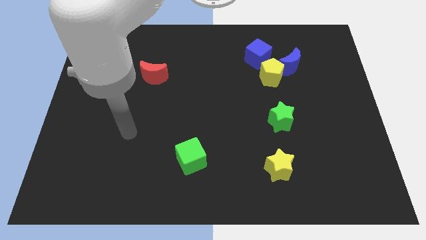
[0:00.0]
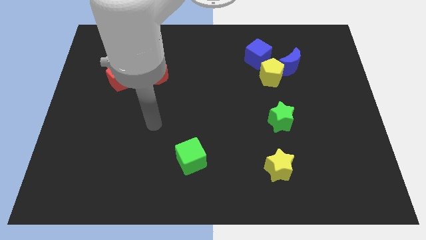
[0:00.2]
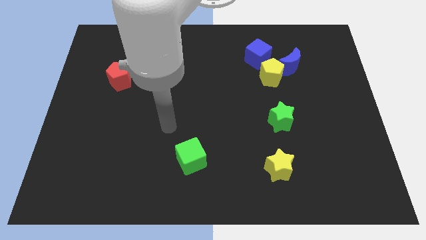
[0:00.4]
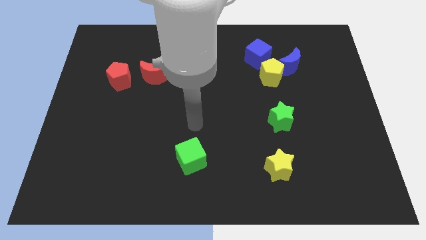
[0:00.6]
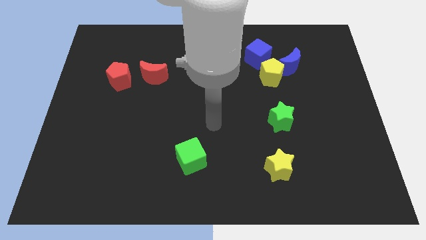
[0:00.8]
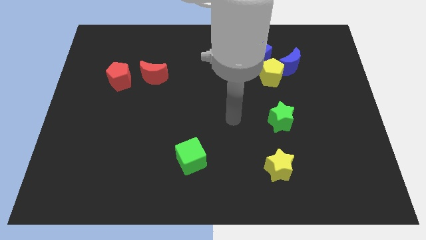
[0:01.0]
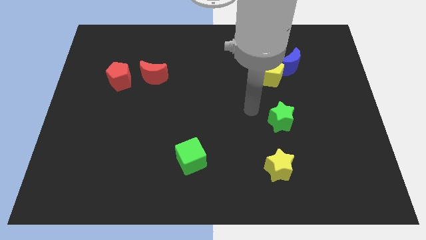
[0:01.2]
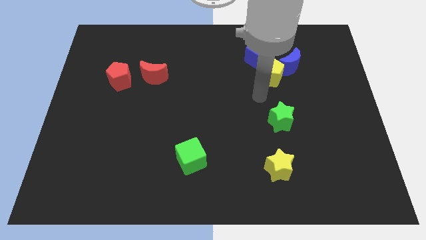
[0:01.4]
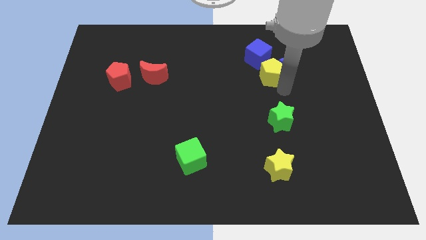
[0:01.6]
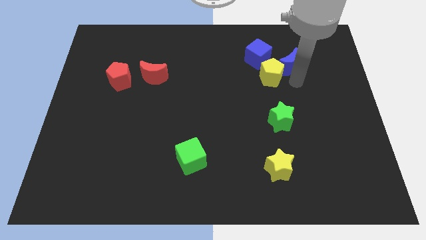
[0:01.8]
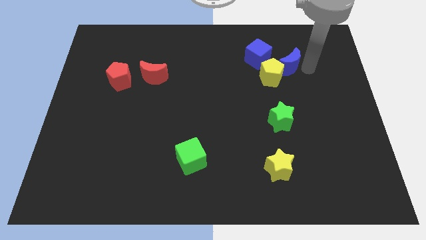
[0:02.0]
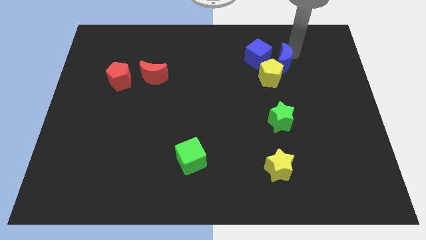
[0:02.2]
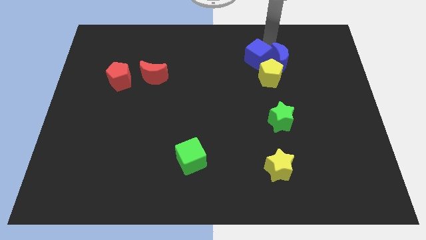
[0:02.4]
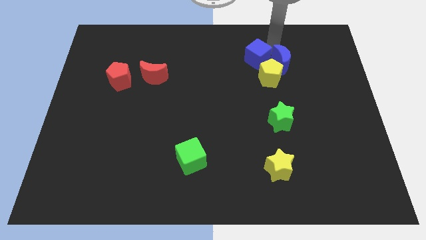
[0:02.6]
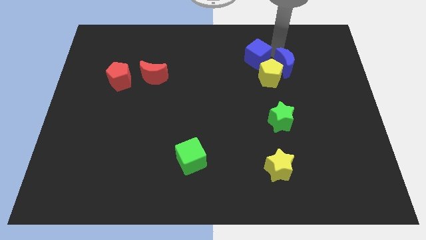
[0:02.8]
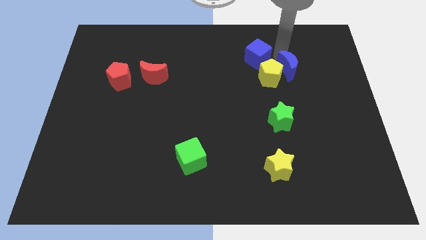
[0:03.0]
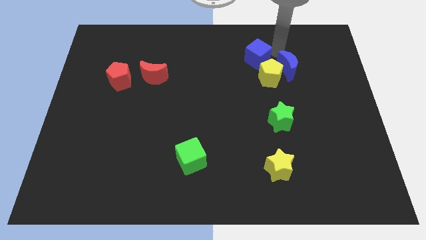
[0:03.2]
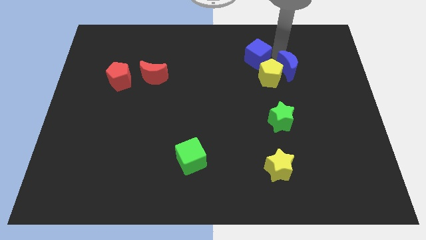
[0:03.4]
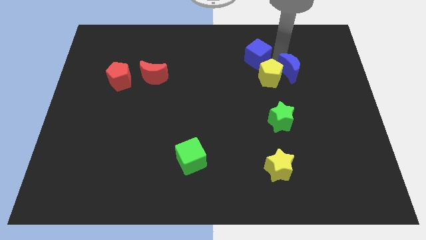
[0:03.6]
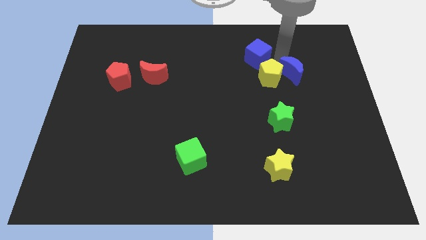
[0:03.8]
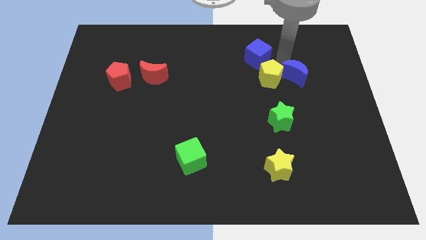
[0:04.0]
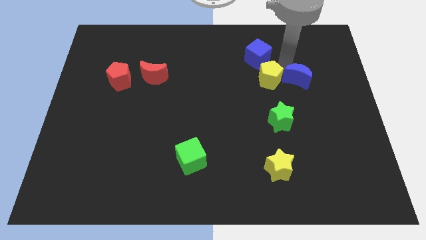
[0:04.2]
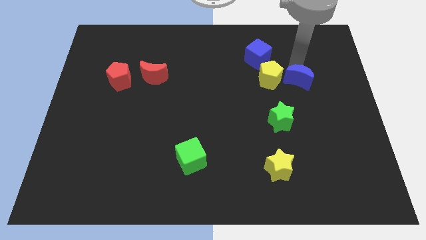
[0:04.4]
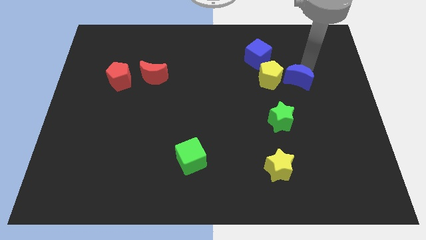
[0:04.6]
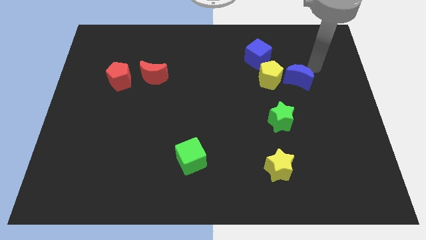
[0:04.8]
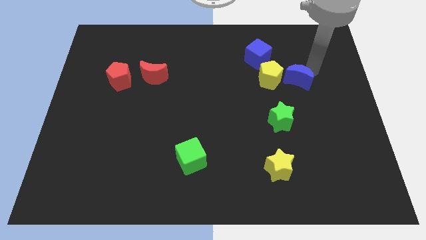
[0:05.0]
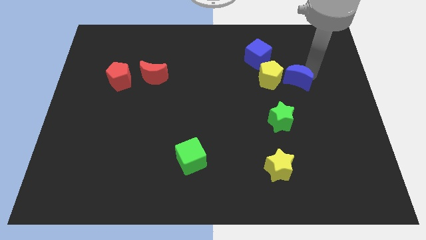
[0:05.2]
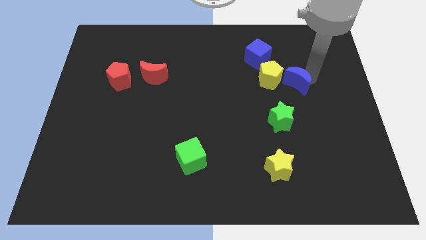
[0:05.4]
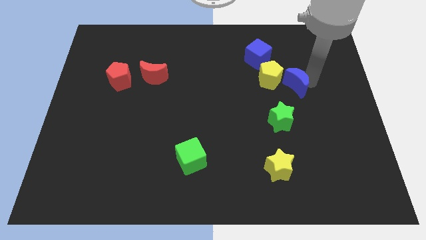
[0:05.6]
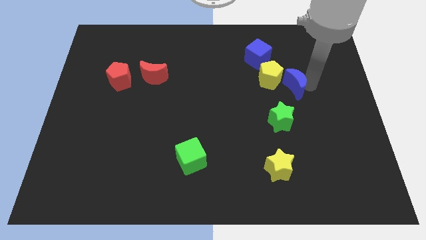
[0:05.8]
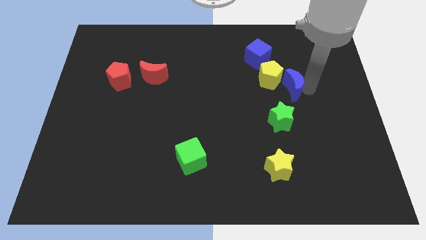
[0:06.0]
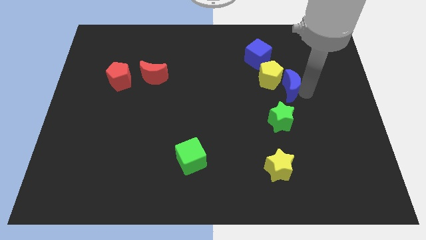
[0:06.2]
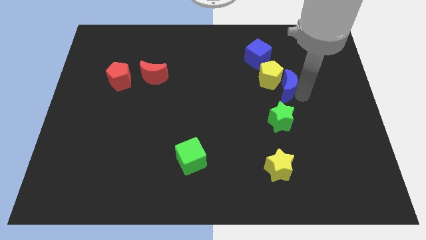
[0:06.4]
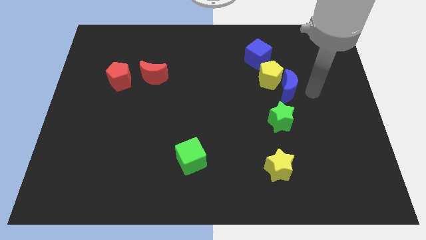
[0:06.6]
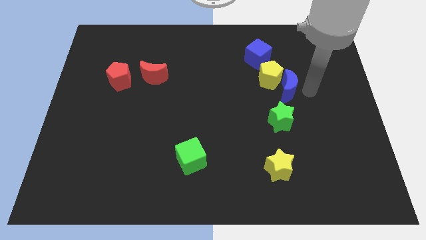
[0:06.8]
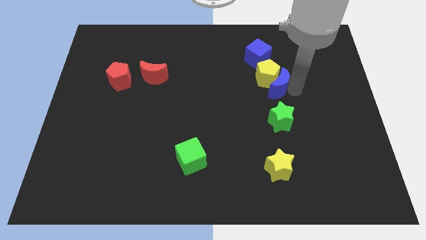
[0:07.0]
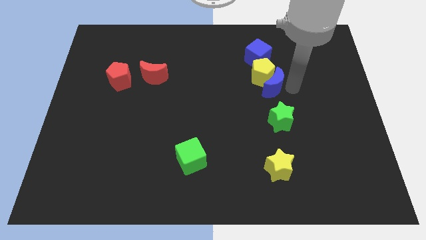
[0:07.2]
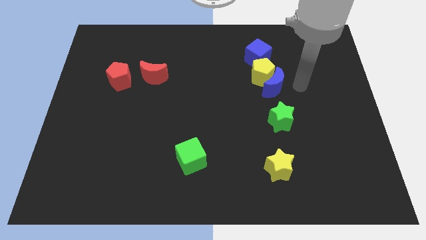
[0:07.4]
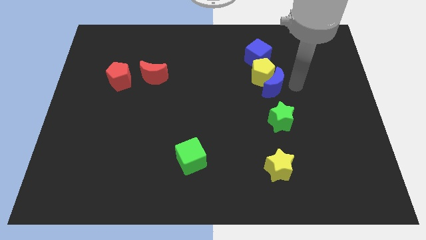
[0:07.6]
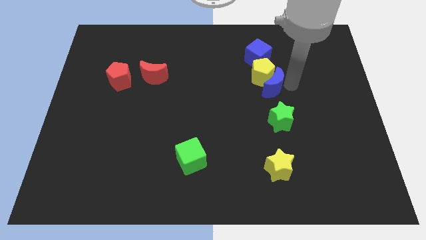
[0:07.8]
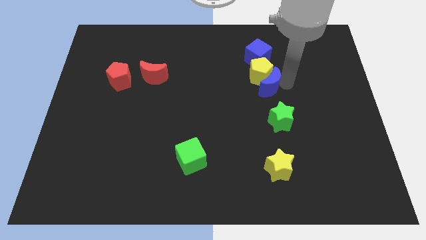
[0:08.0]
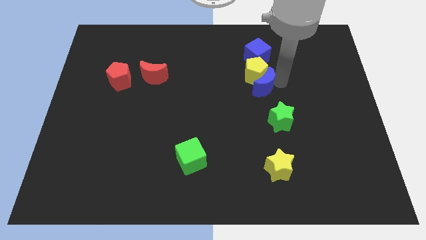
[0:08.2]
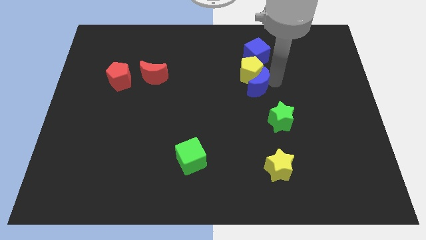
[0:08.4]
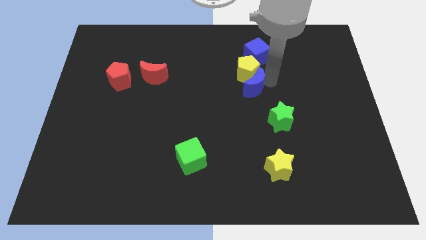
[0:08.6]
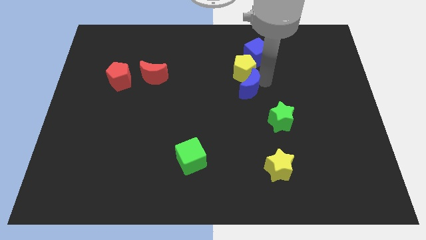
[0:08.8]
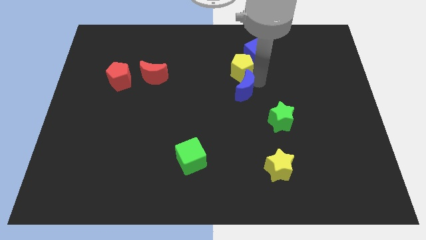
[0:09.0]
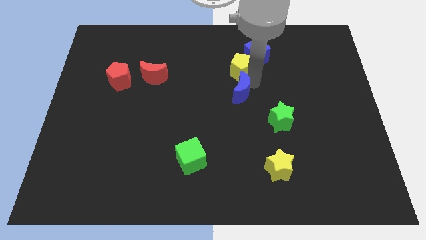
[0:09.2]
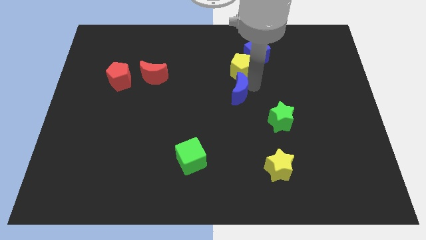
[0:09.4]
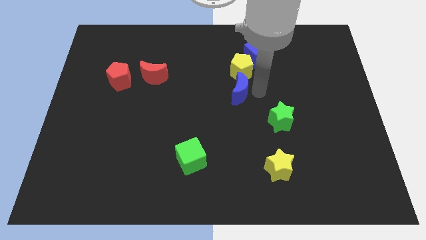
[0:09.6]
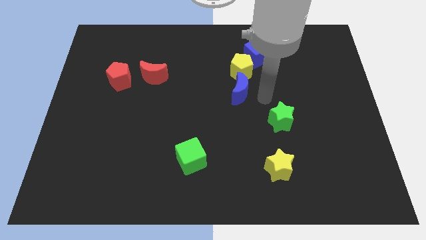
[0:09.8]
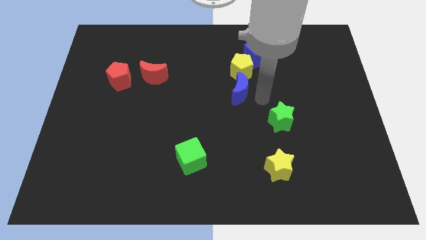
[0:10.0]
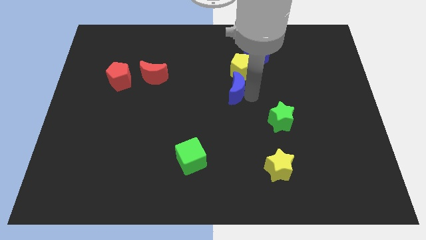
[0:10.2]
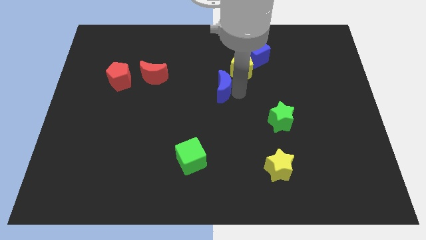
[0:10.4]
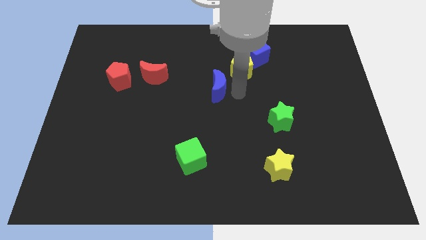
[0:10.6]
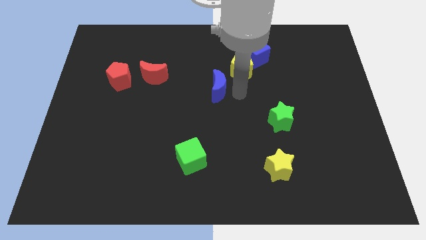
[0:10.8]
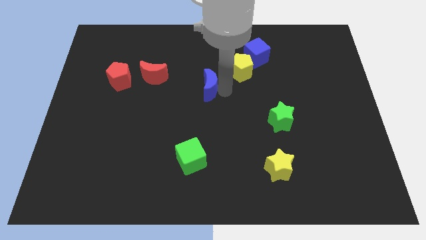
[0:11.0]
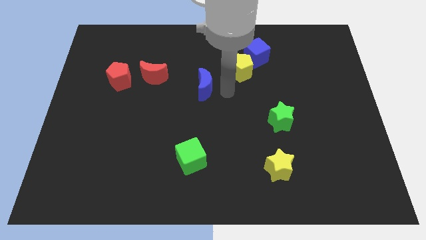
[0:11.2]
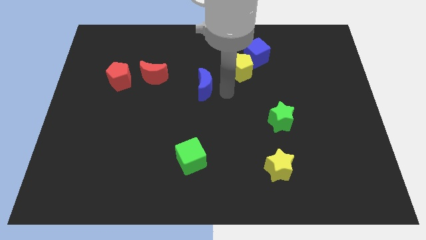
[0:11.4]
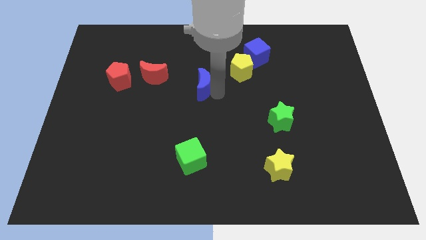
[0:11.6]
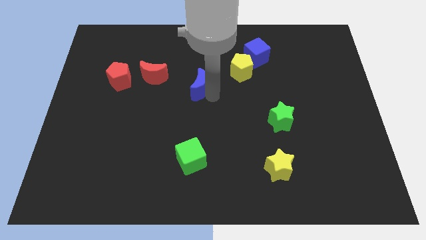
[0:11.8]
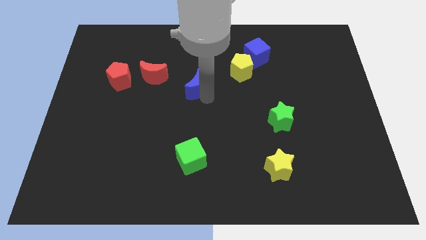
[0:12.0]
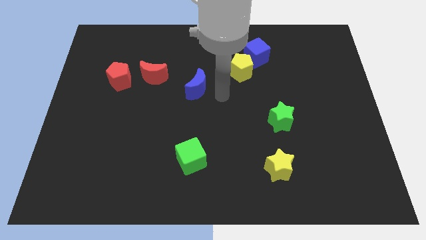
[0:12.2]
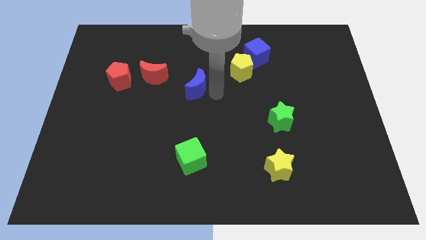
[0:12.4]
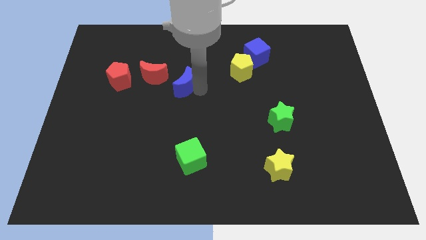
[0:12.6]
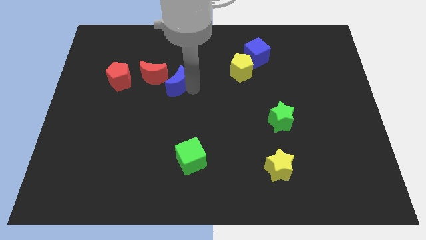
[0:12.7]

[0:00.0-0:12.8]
push the blue moon to the right of the red pentagon

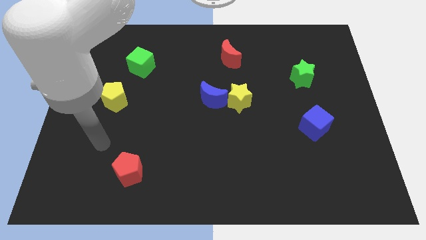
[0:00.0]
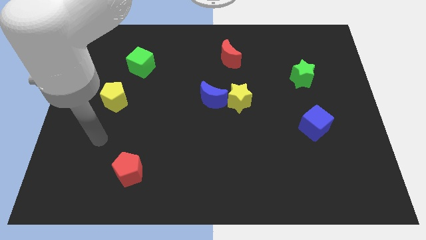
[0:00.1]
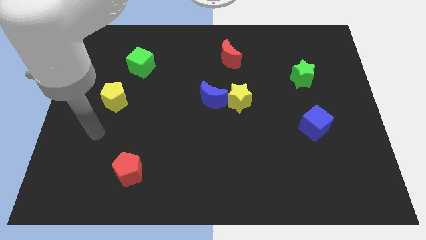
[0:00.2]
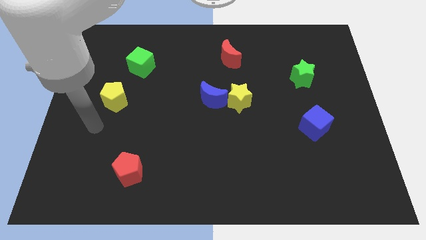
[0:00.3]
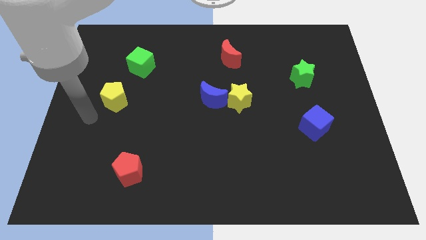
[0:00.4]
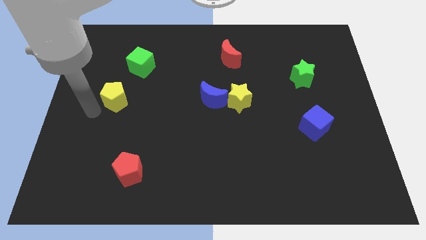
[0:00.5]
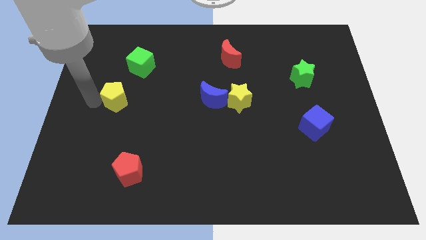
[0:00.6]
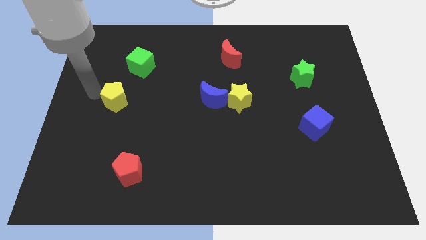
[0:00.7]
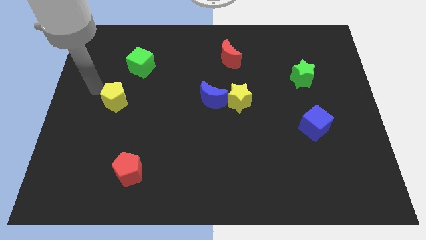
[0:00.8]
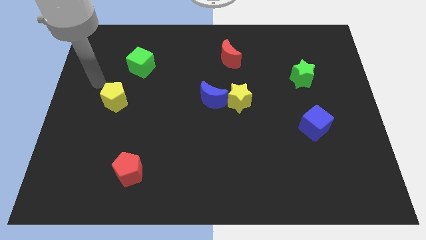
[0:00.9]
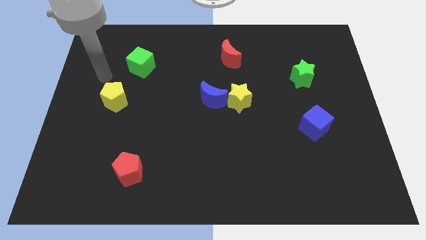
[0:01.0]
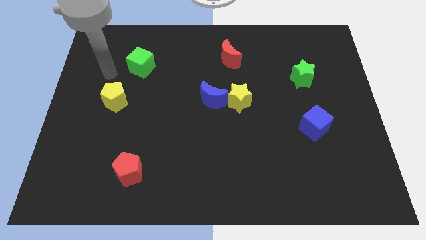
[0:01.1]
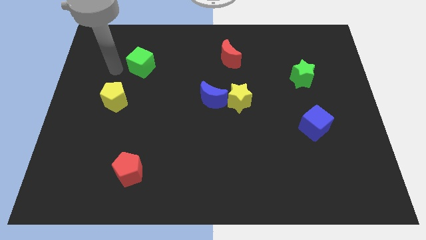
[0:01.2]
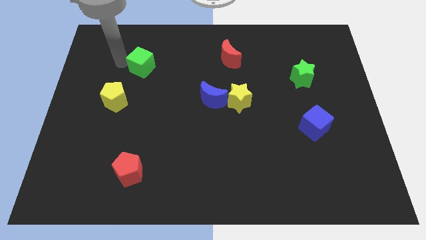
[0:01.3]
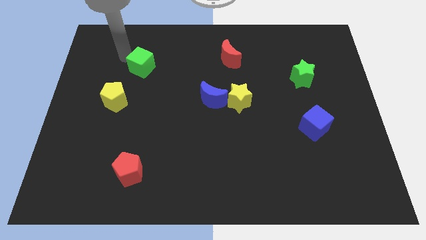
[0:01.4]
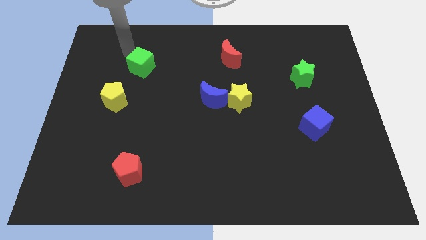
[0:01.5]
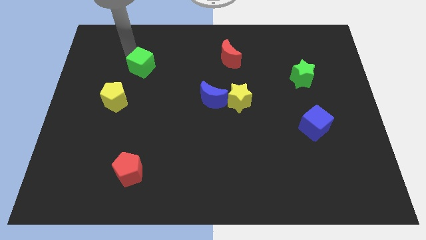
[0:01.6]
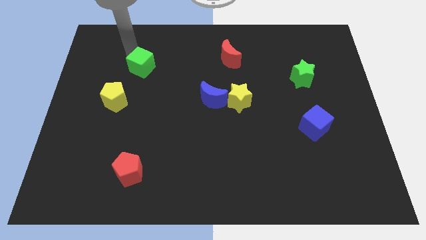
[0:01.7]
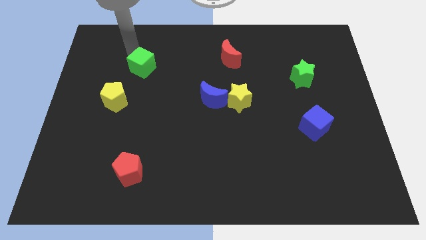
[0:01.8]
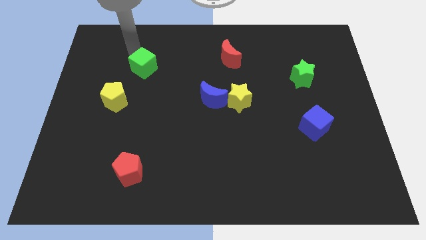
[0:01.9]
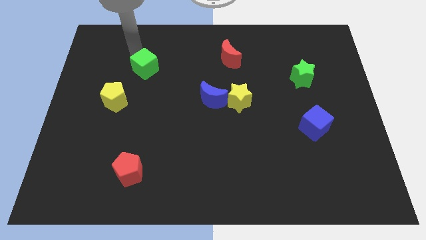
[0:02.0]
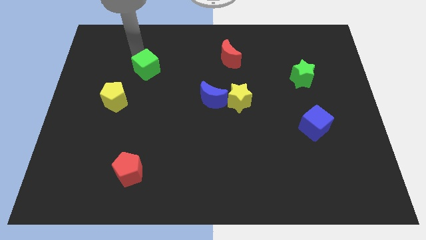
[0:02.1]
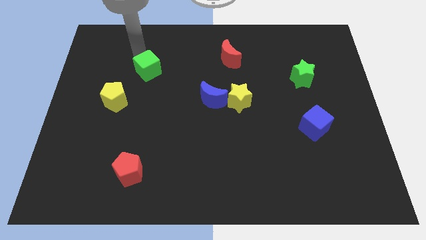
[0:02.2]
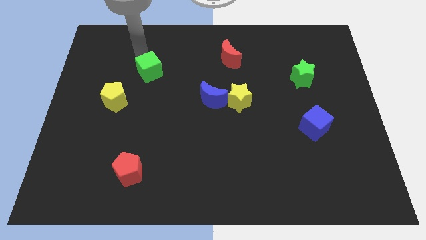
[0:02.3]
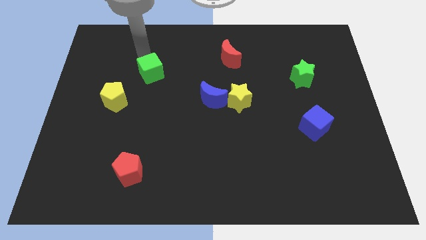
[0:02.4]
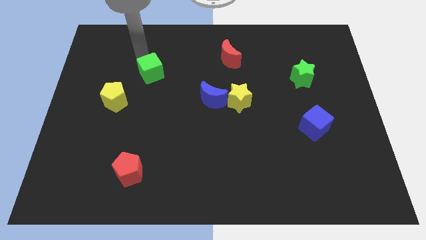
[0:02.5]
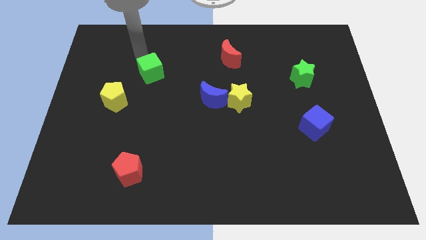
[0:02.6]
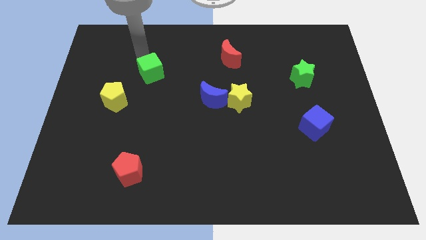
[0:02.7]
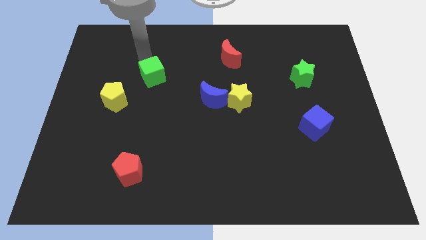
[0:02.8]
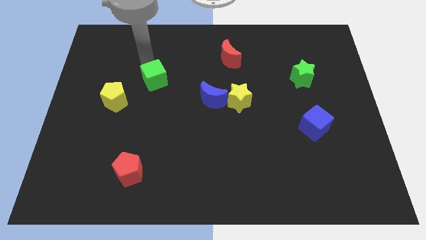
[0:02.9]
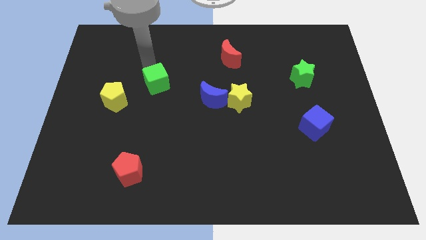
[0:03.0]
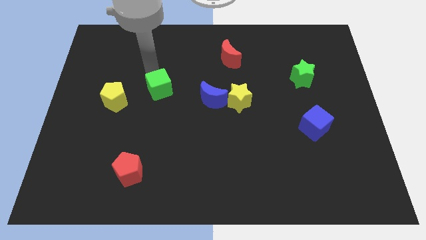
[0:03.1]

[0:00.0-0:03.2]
push the green cube left of the blue moon
